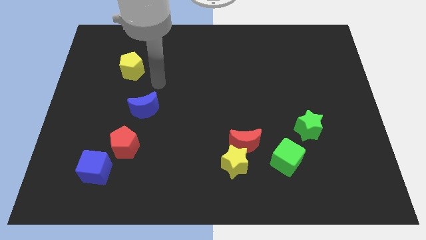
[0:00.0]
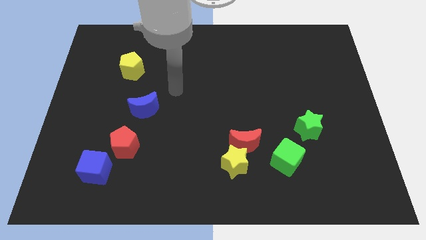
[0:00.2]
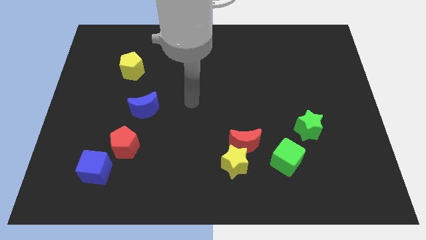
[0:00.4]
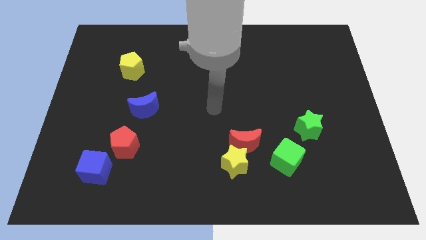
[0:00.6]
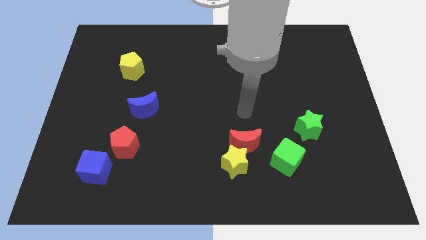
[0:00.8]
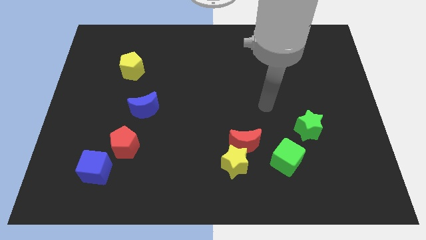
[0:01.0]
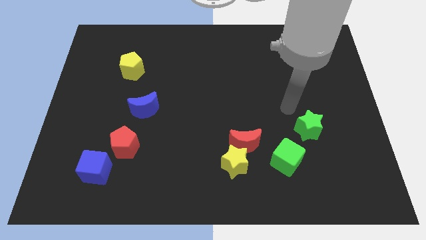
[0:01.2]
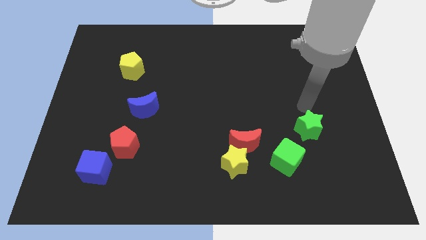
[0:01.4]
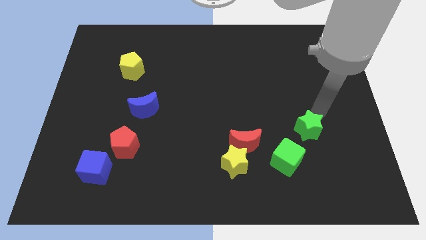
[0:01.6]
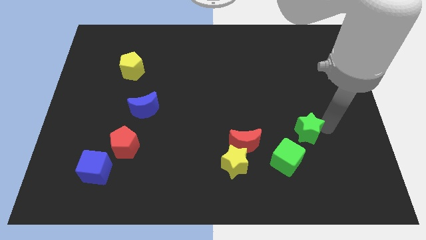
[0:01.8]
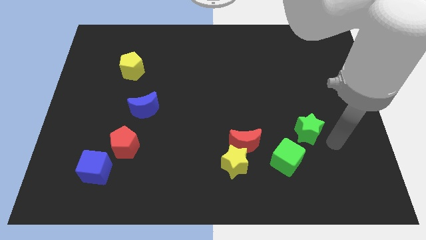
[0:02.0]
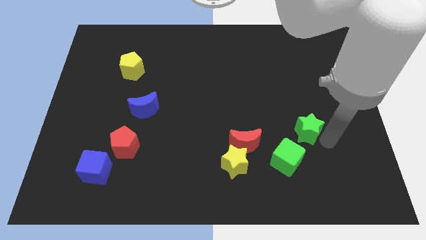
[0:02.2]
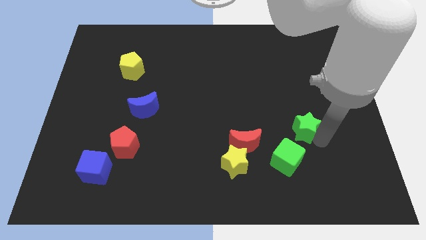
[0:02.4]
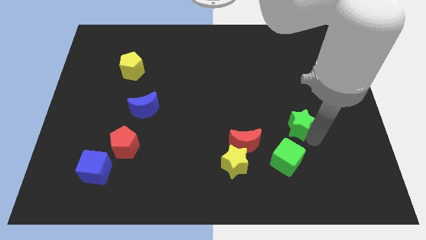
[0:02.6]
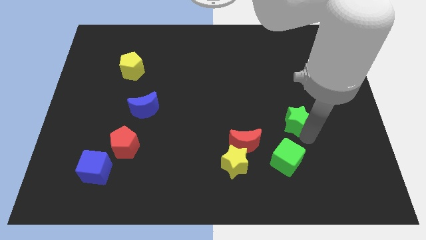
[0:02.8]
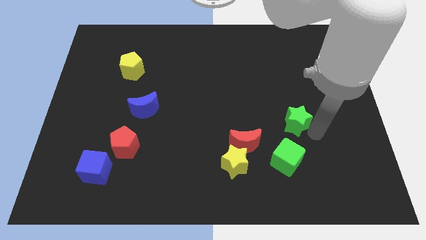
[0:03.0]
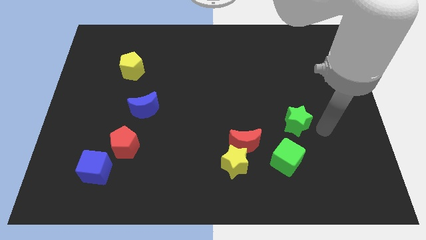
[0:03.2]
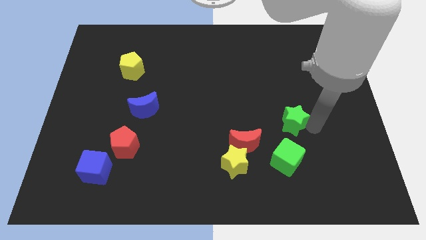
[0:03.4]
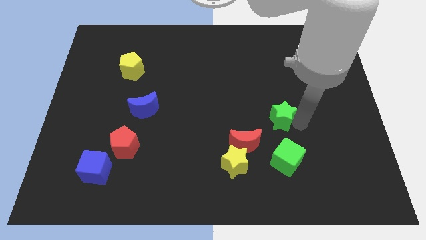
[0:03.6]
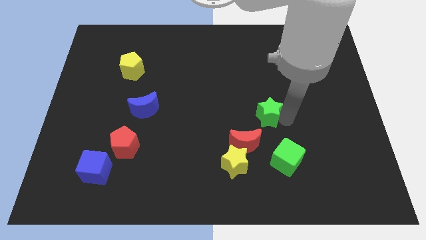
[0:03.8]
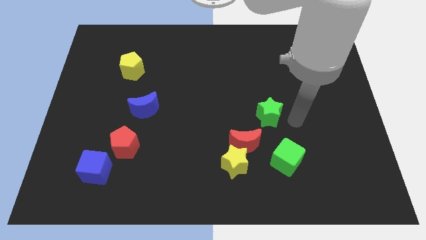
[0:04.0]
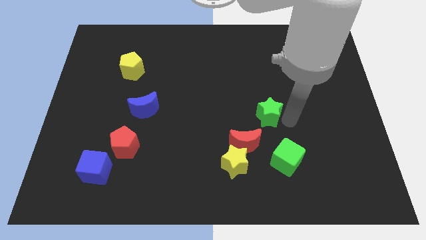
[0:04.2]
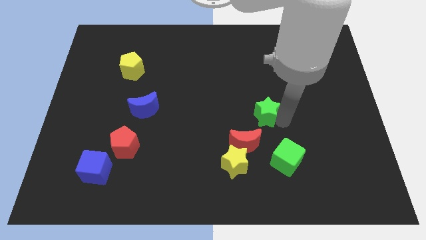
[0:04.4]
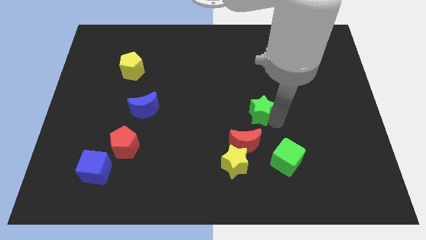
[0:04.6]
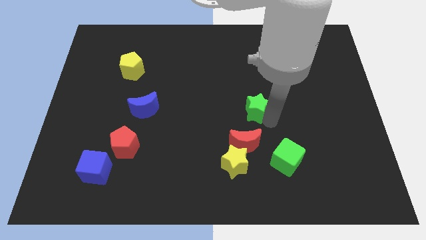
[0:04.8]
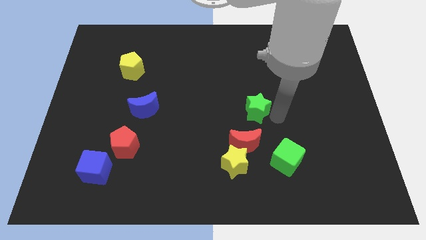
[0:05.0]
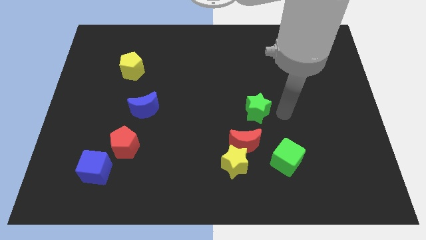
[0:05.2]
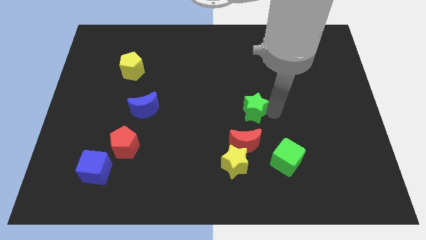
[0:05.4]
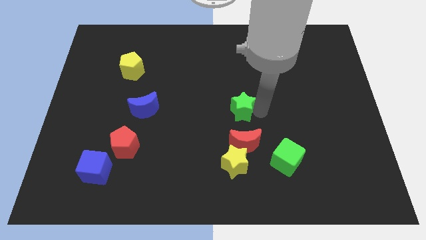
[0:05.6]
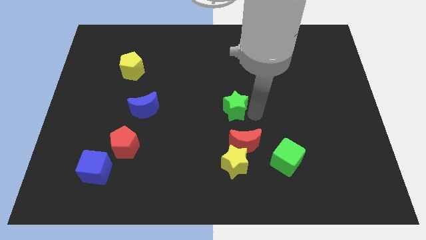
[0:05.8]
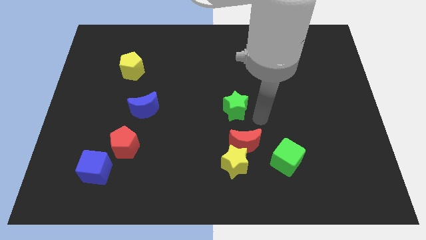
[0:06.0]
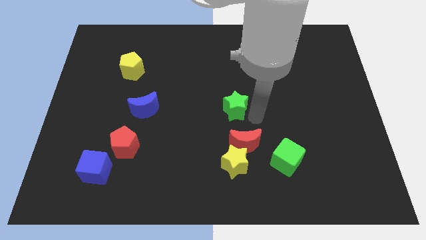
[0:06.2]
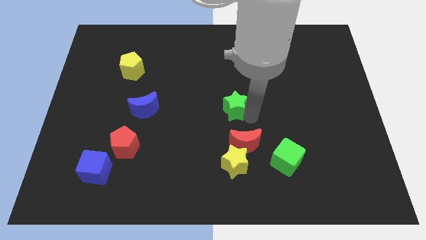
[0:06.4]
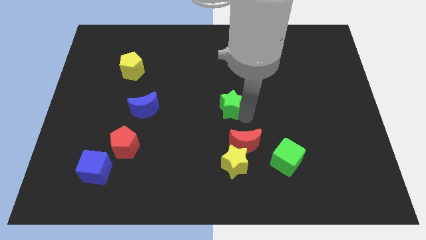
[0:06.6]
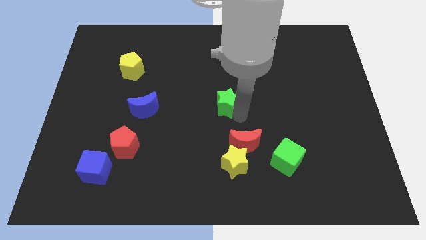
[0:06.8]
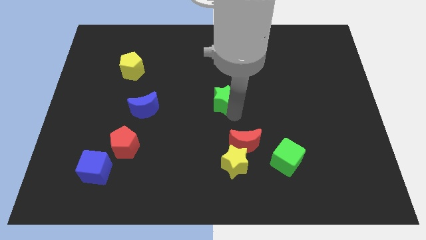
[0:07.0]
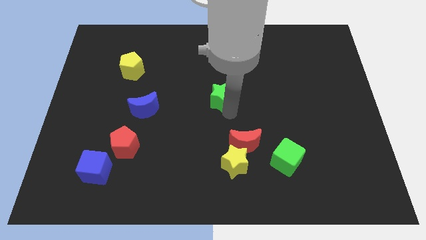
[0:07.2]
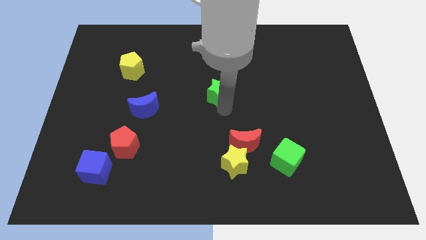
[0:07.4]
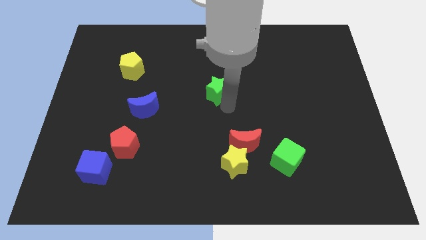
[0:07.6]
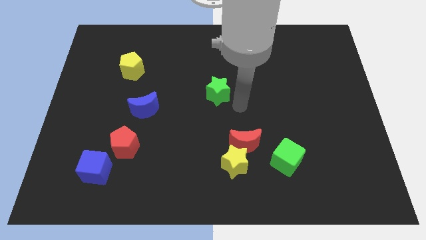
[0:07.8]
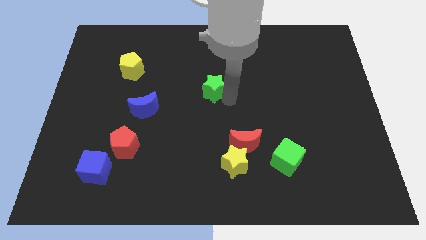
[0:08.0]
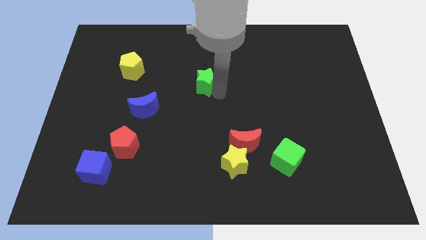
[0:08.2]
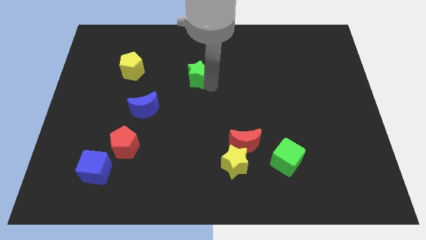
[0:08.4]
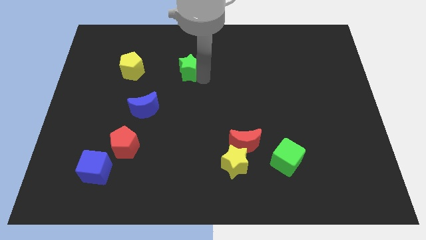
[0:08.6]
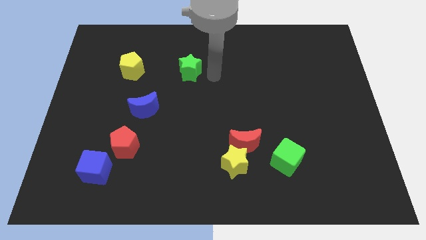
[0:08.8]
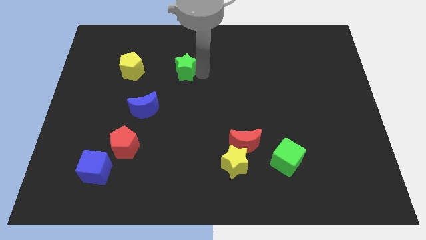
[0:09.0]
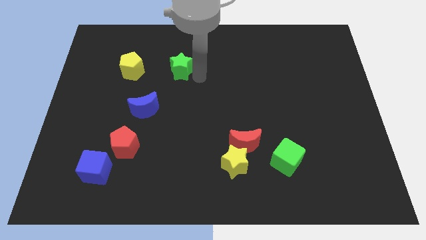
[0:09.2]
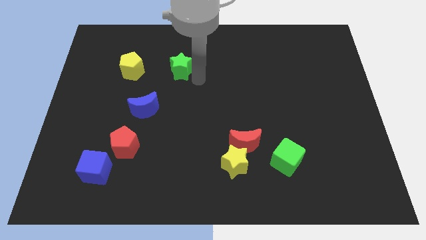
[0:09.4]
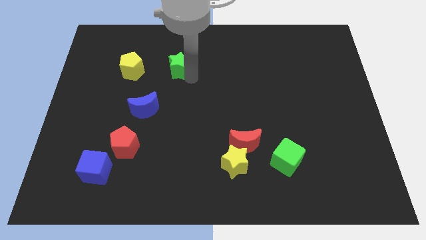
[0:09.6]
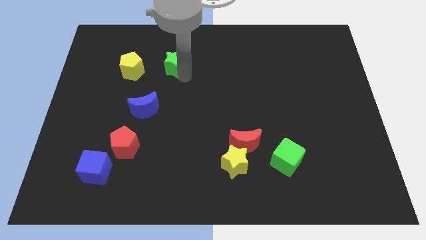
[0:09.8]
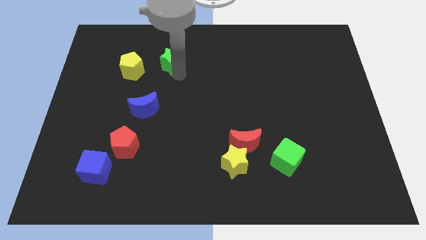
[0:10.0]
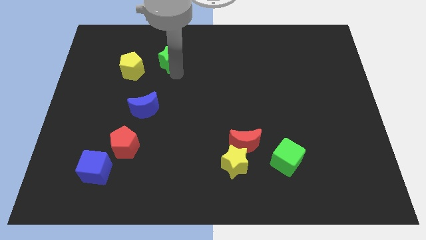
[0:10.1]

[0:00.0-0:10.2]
put the green star diagonally up and to the right of the yellow pentagon

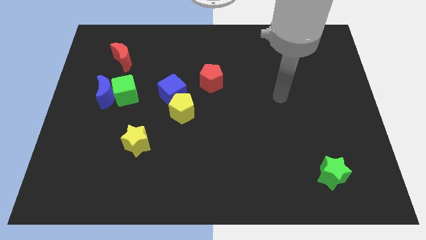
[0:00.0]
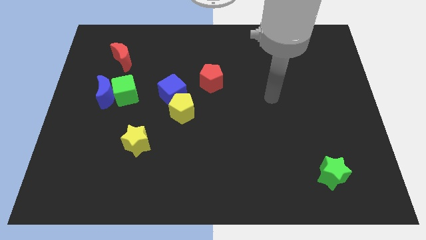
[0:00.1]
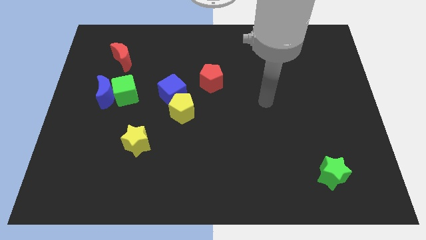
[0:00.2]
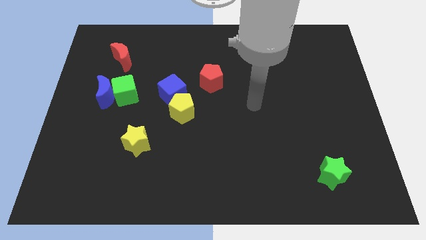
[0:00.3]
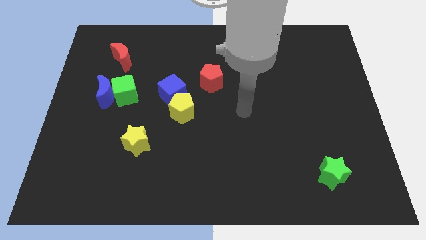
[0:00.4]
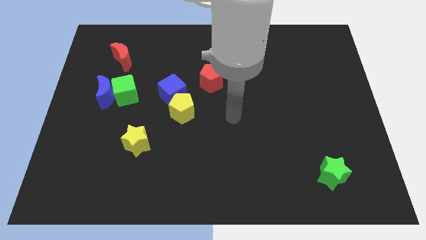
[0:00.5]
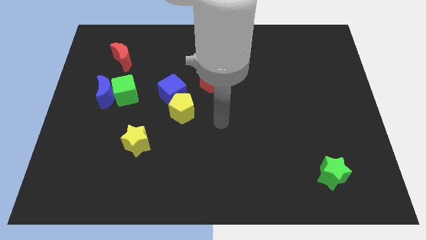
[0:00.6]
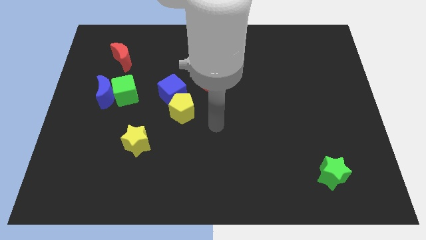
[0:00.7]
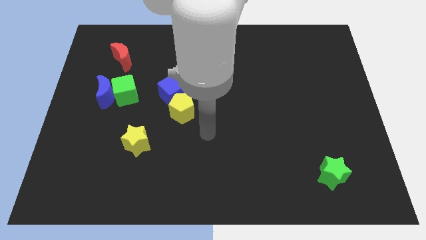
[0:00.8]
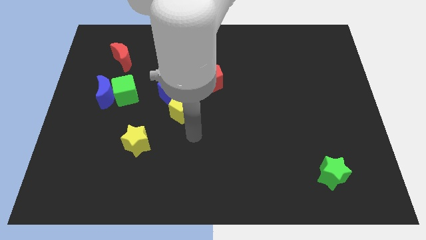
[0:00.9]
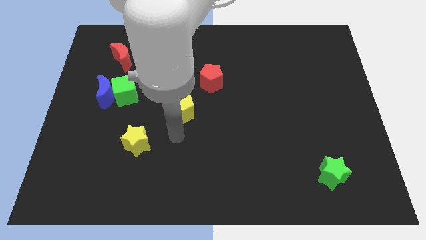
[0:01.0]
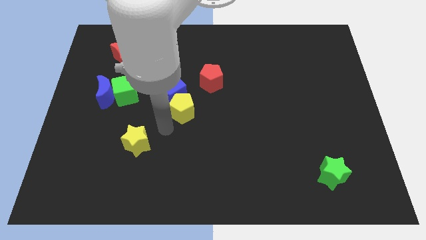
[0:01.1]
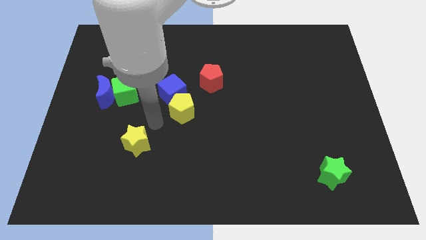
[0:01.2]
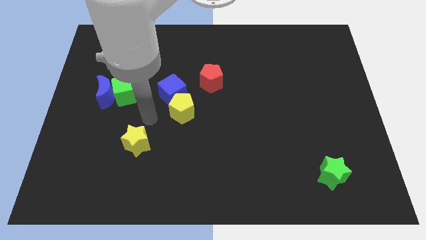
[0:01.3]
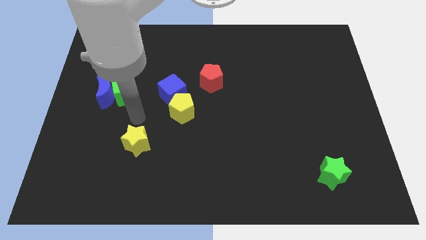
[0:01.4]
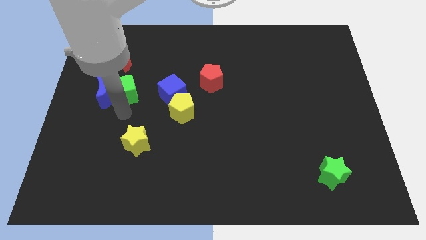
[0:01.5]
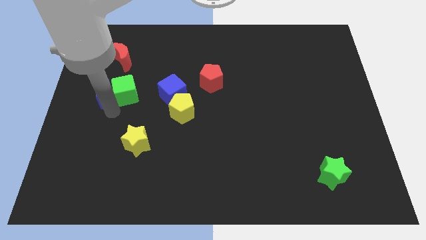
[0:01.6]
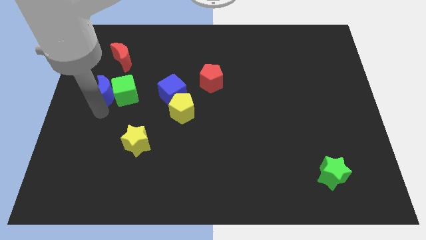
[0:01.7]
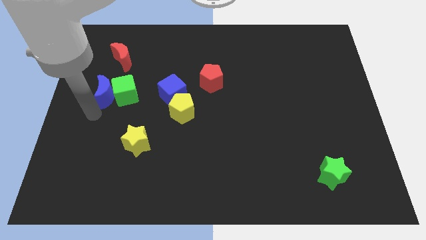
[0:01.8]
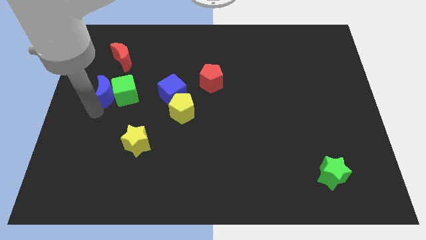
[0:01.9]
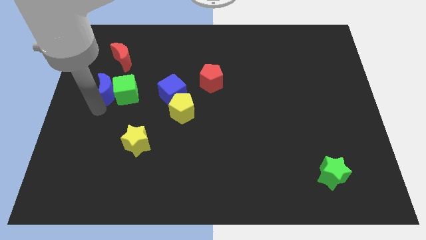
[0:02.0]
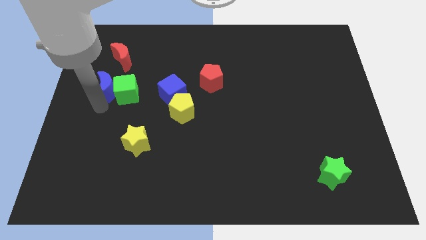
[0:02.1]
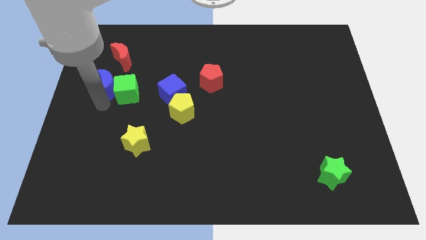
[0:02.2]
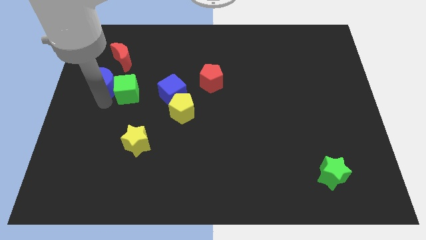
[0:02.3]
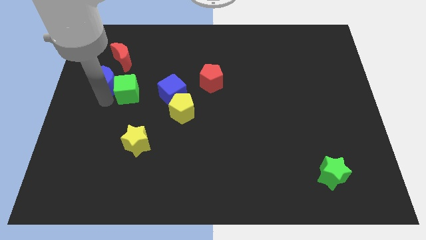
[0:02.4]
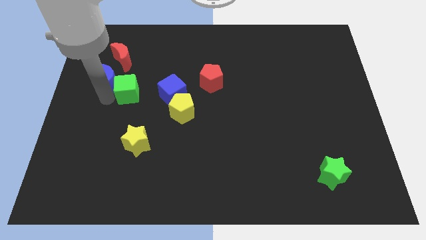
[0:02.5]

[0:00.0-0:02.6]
push the blue moon above the green cube
